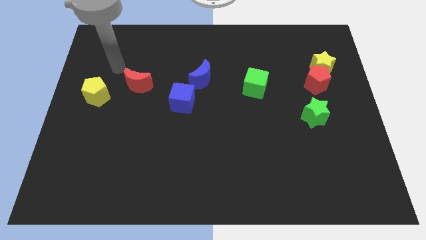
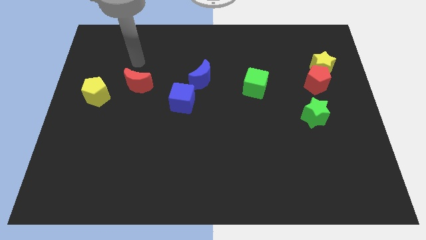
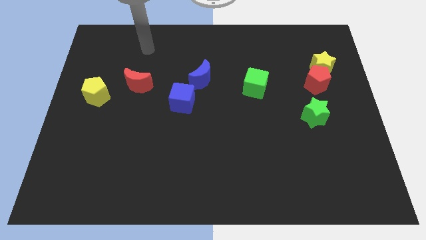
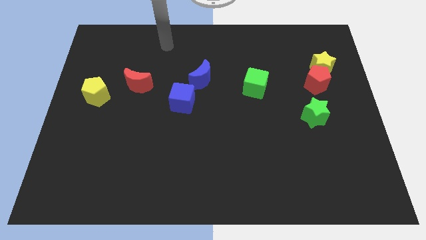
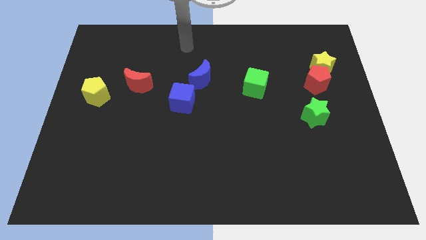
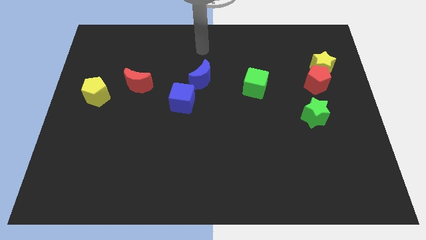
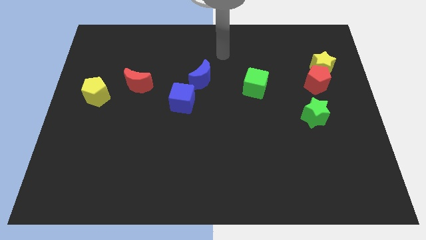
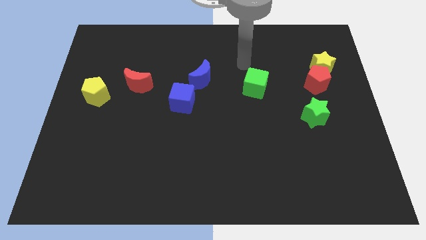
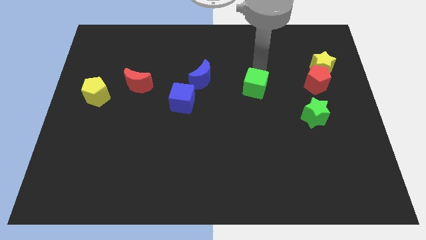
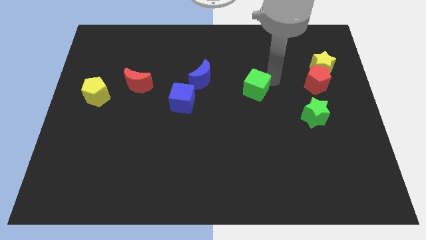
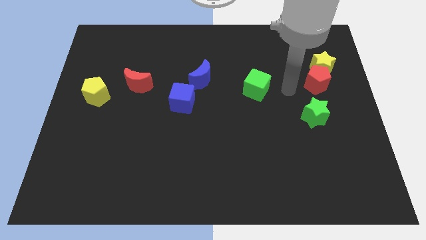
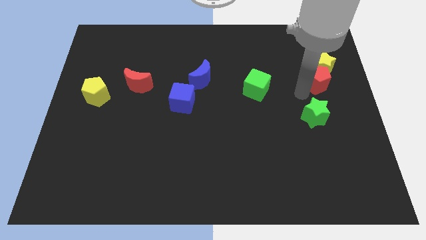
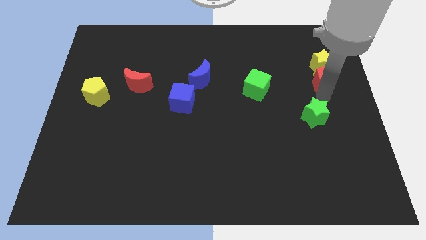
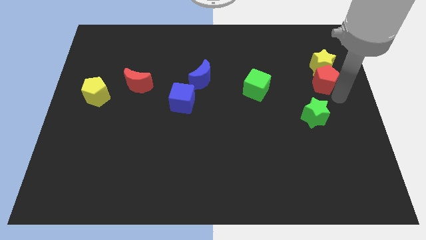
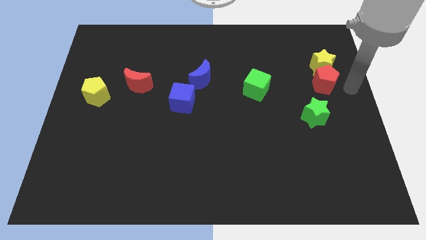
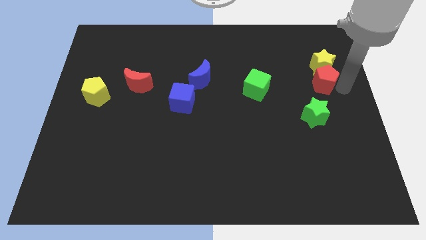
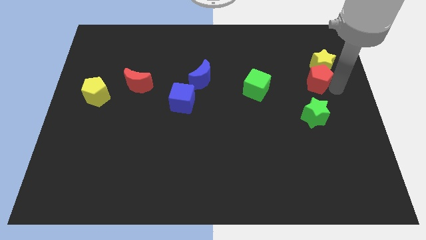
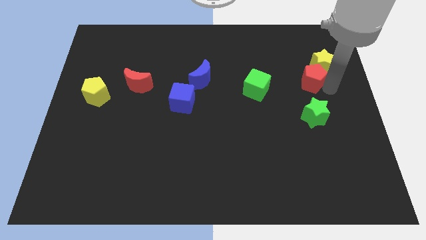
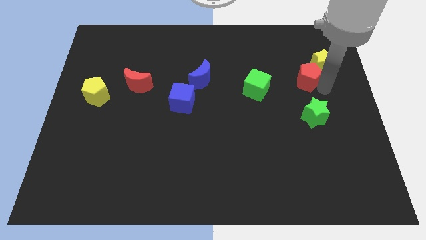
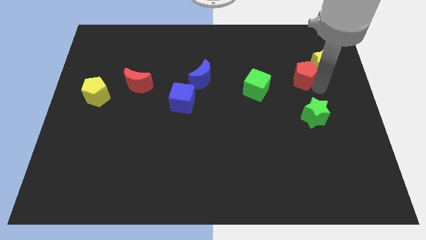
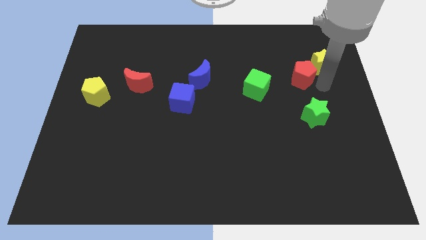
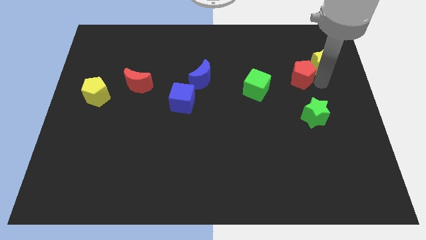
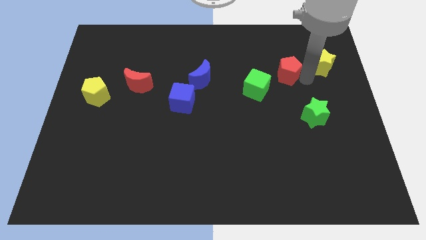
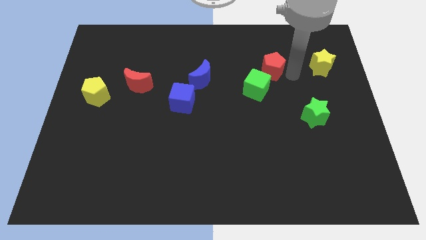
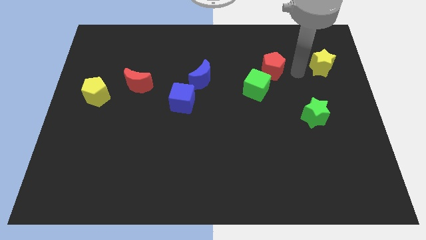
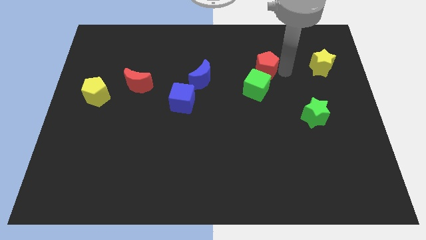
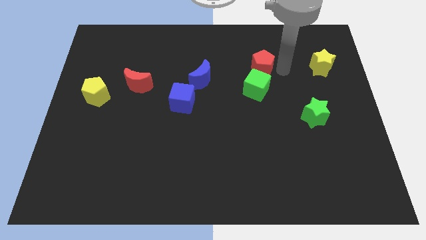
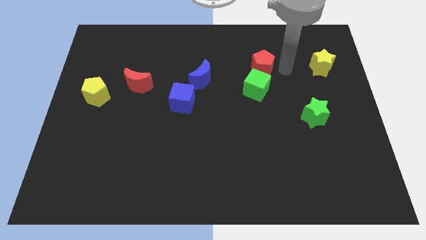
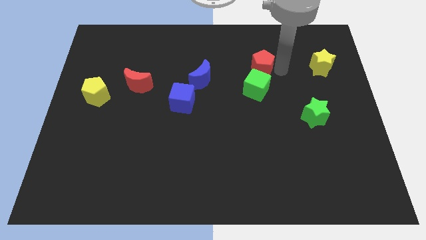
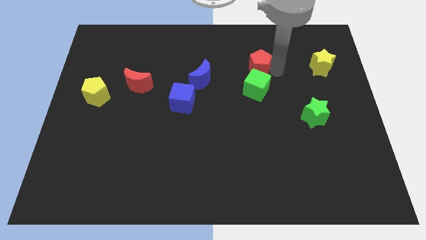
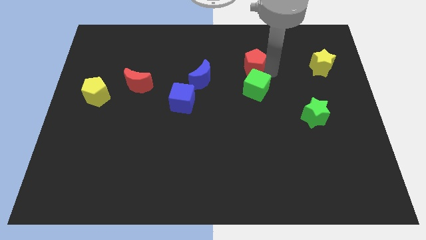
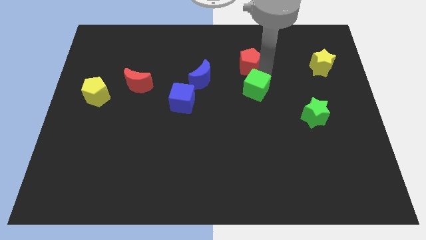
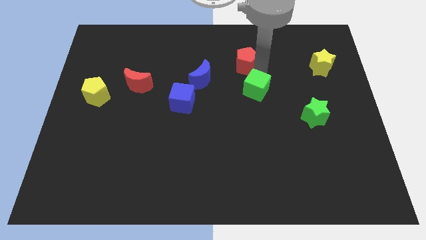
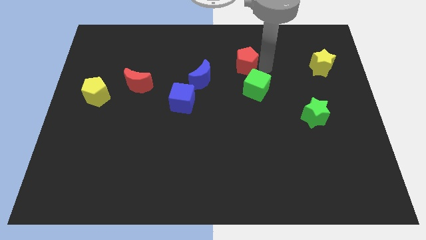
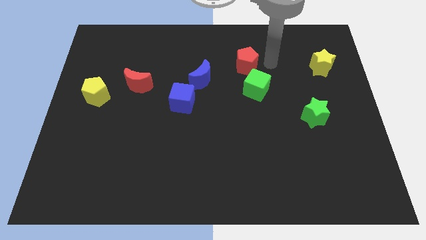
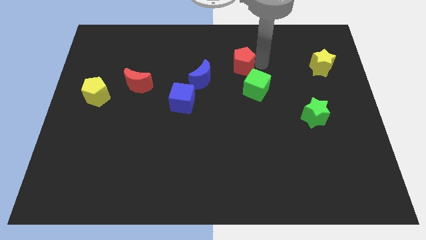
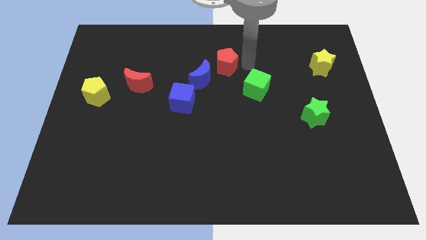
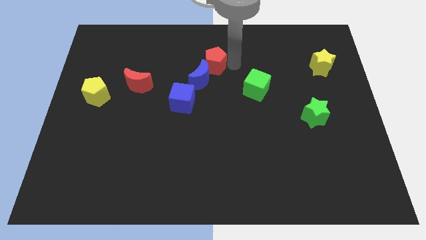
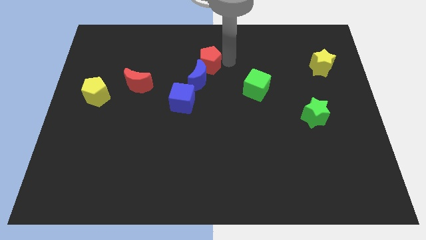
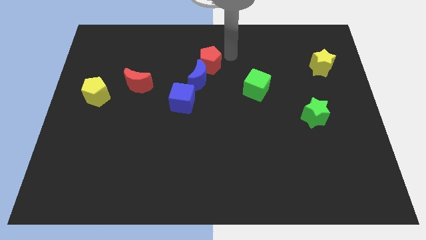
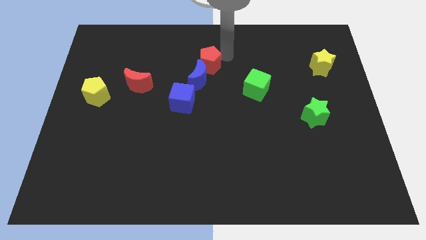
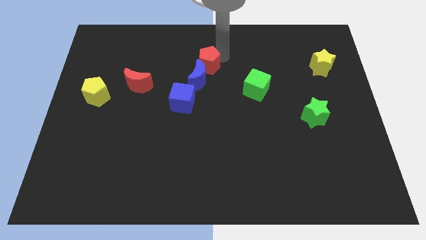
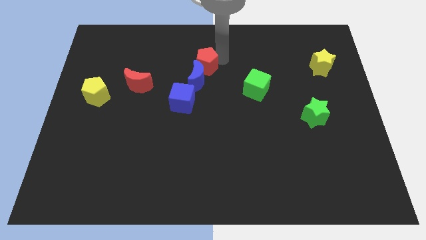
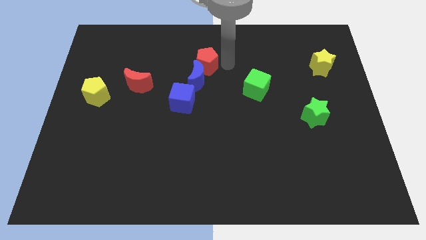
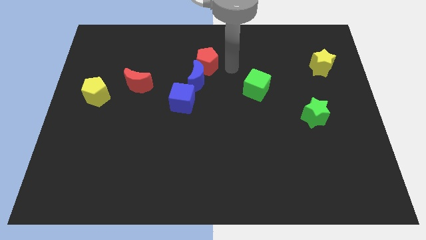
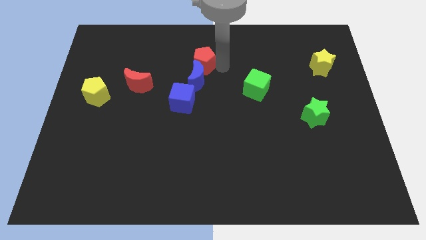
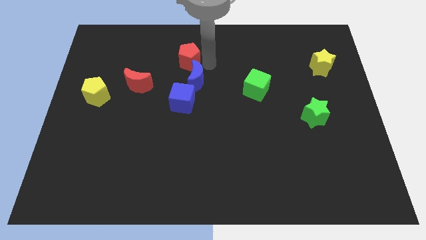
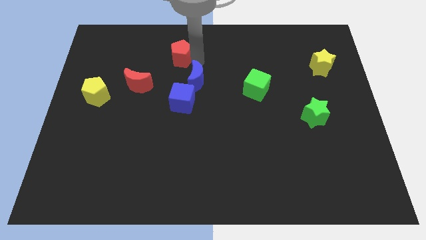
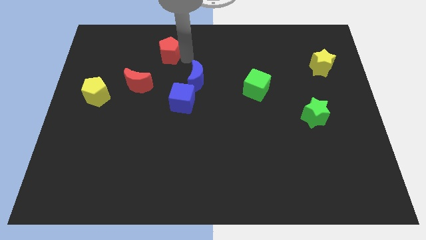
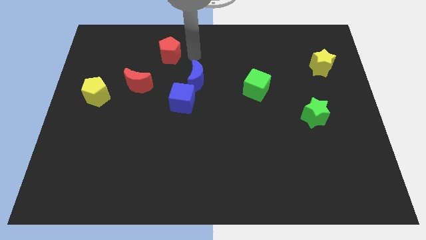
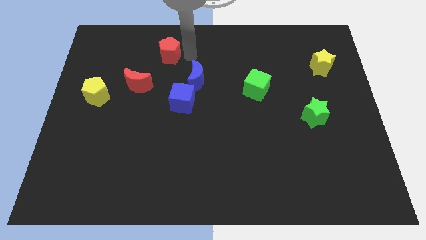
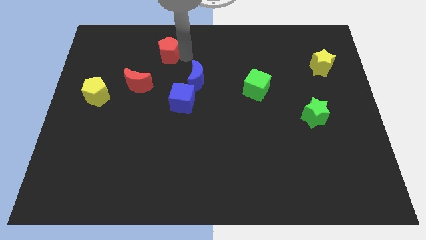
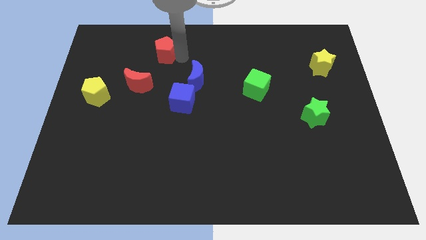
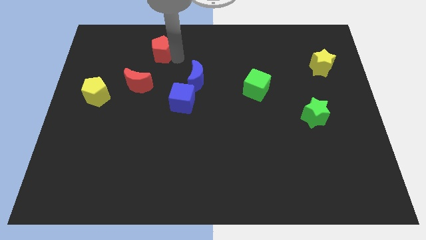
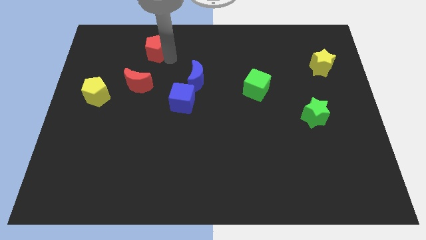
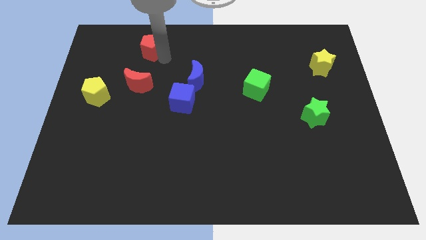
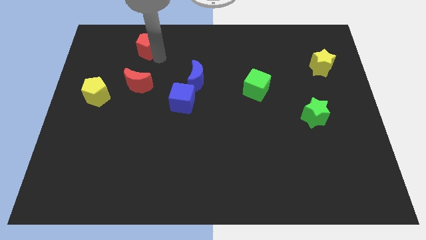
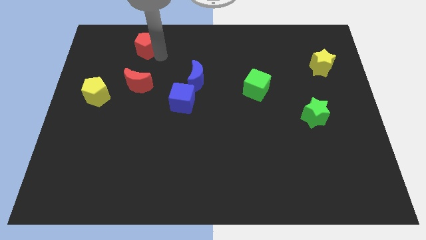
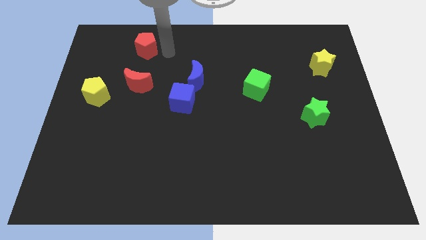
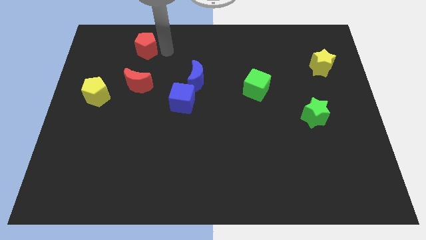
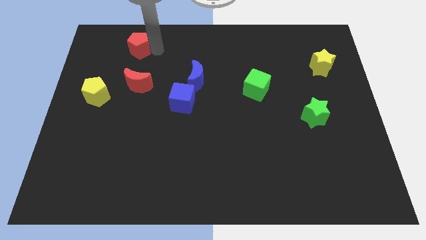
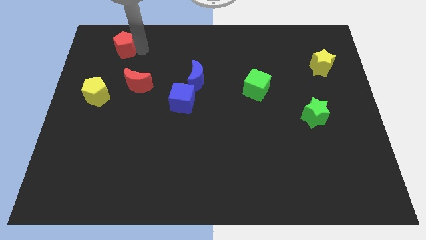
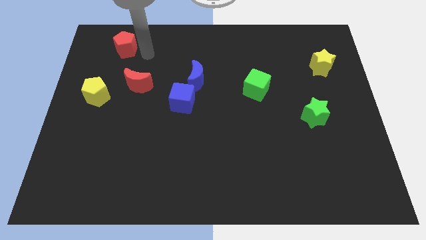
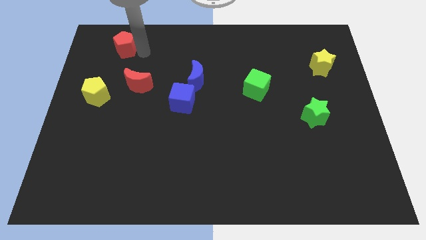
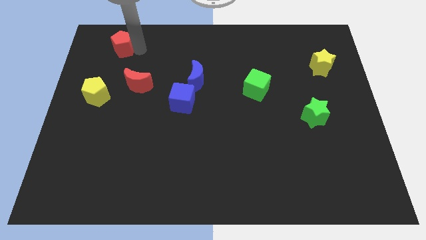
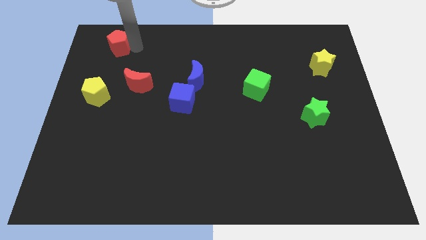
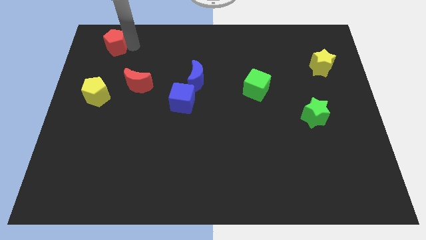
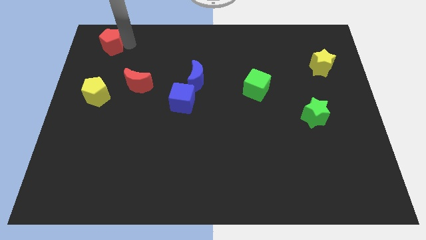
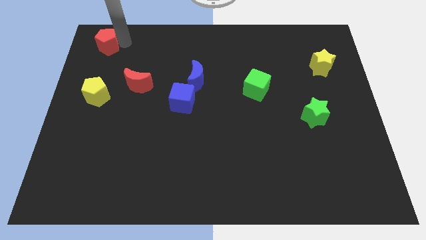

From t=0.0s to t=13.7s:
push the red pentagon to the top left
